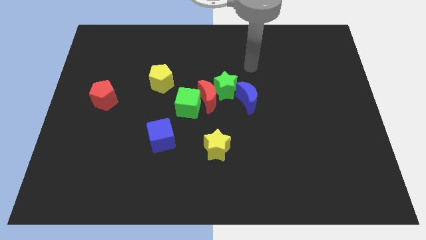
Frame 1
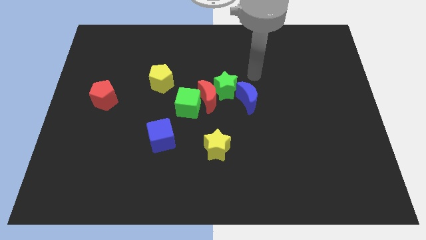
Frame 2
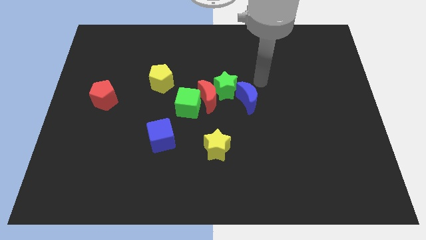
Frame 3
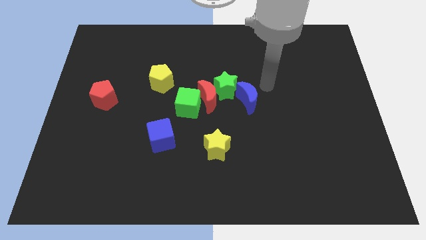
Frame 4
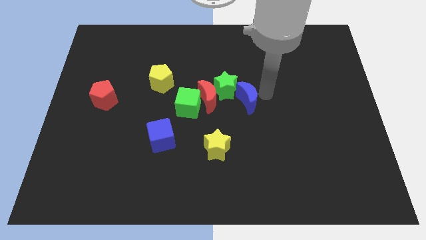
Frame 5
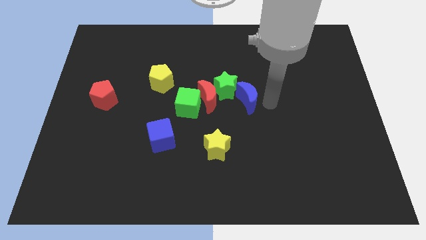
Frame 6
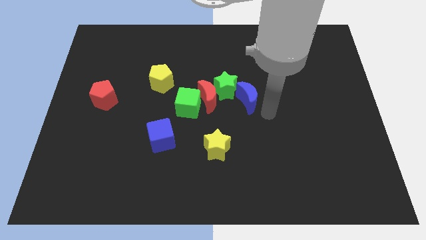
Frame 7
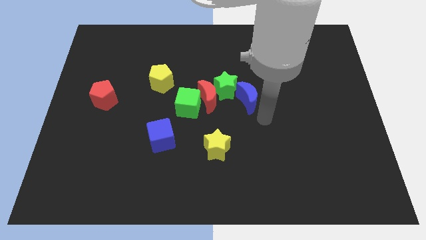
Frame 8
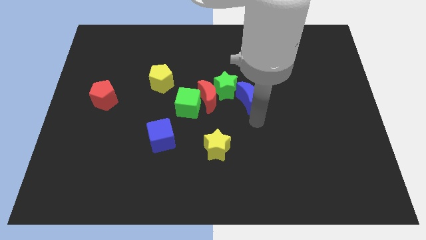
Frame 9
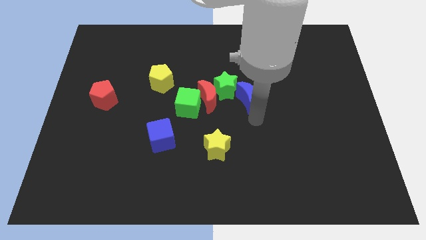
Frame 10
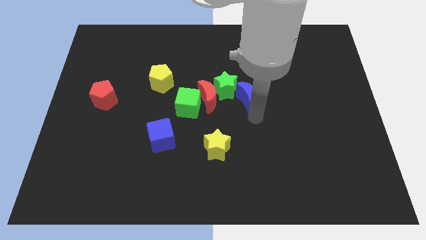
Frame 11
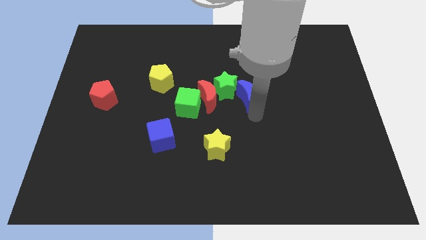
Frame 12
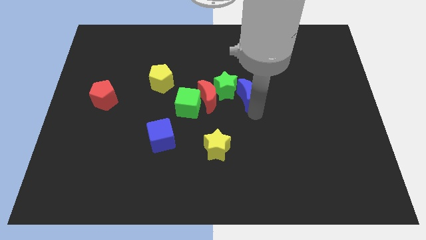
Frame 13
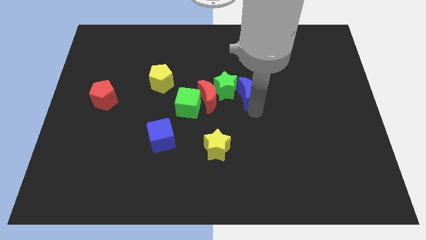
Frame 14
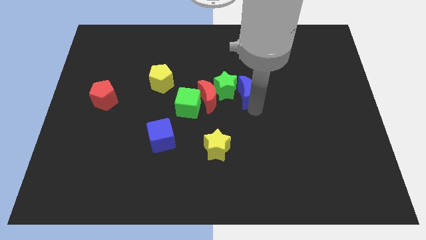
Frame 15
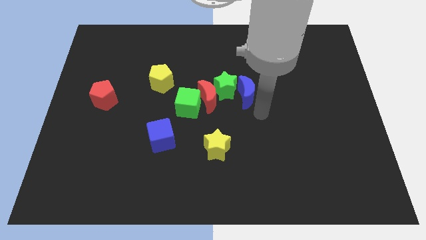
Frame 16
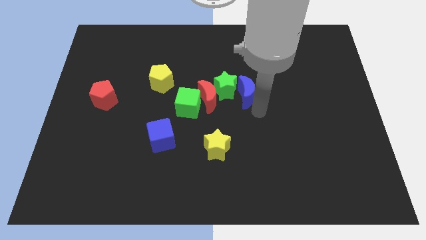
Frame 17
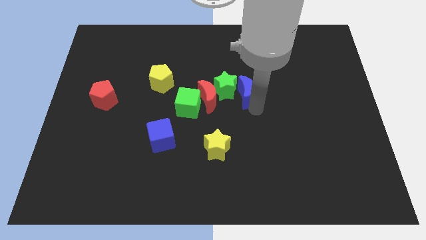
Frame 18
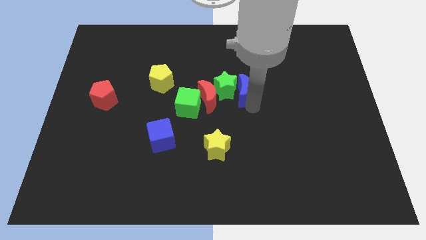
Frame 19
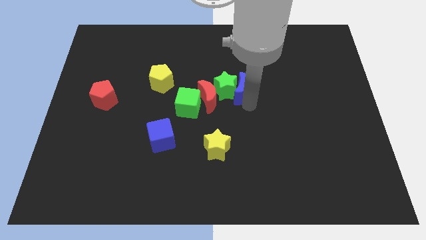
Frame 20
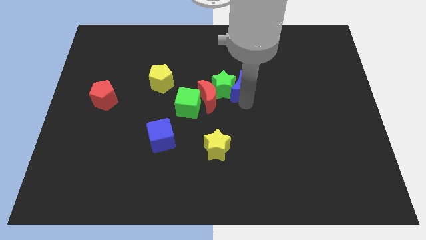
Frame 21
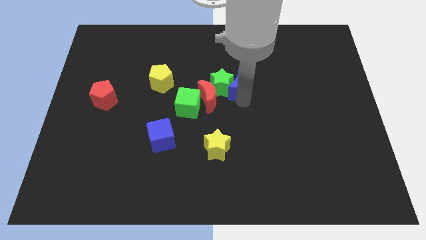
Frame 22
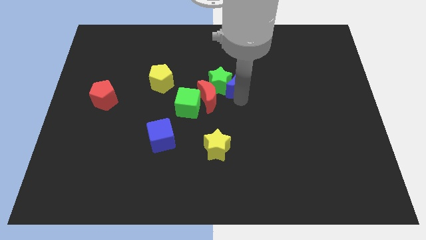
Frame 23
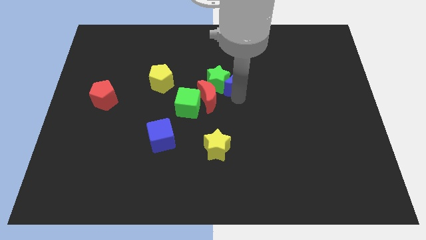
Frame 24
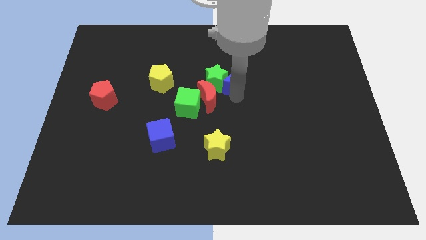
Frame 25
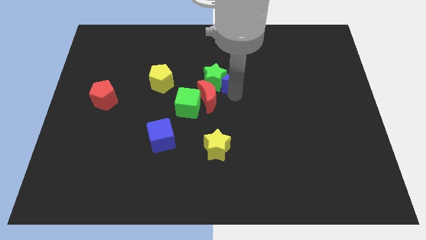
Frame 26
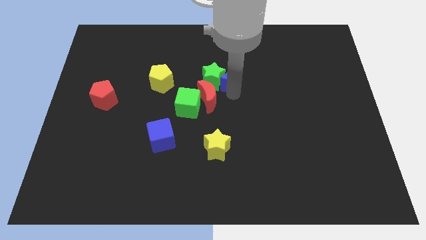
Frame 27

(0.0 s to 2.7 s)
push the blue moon slightly upwards and then left

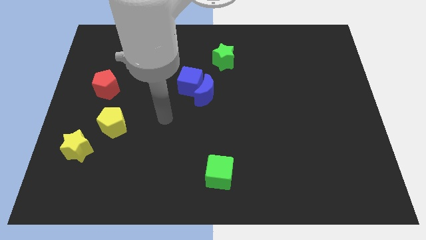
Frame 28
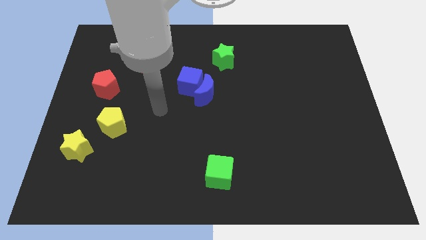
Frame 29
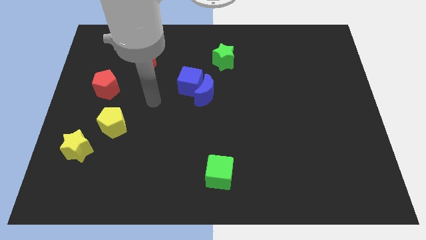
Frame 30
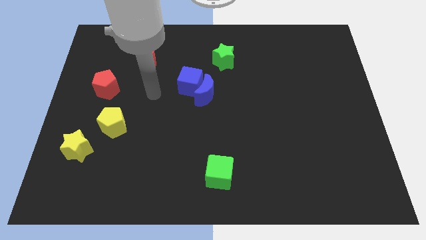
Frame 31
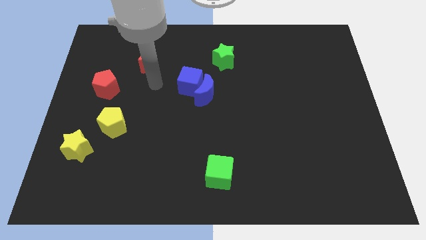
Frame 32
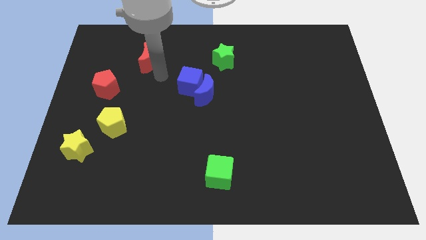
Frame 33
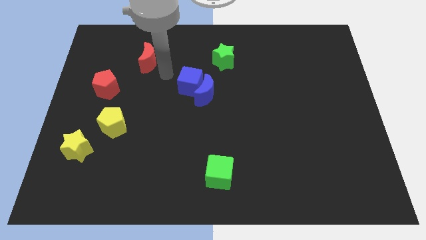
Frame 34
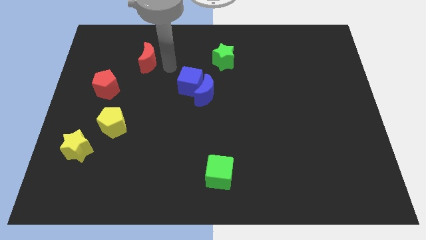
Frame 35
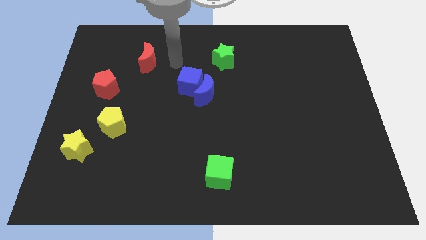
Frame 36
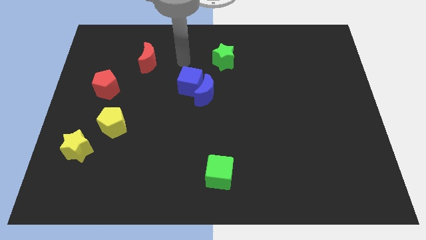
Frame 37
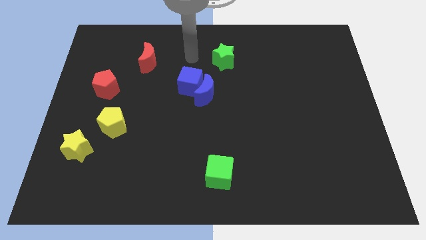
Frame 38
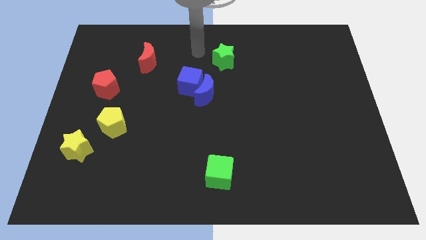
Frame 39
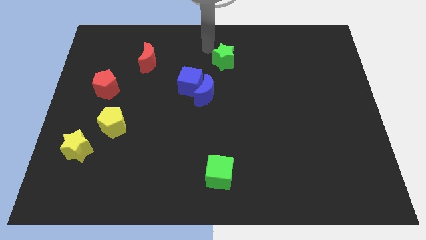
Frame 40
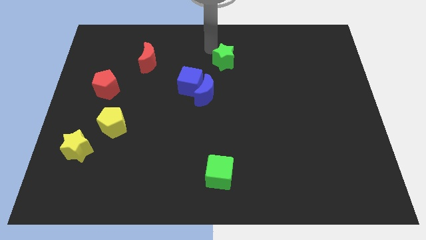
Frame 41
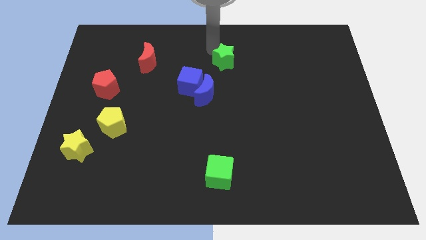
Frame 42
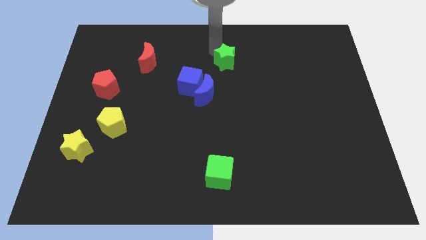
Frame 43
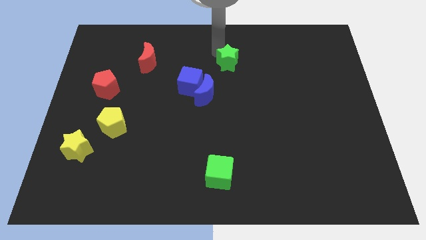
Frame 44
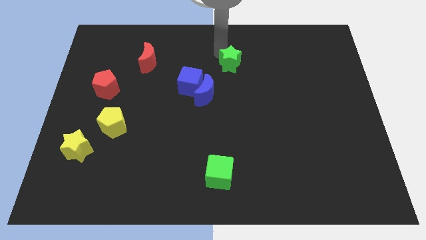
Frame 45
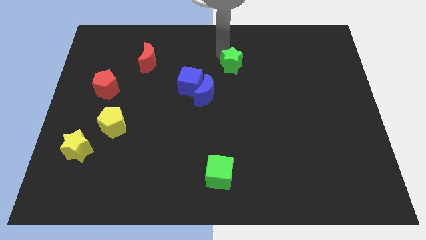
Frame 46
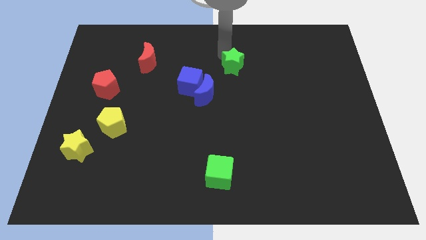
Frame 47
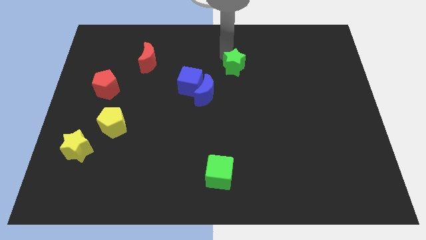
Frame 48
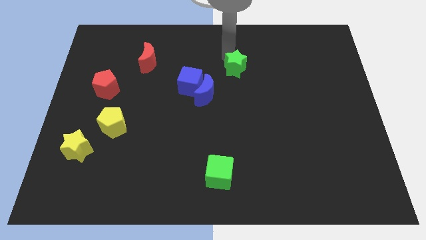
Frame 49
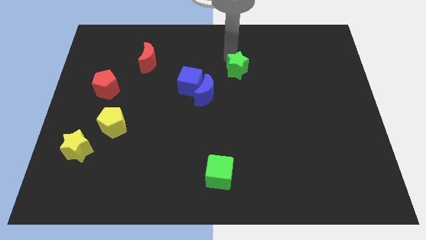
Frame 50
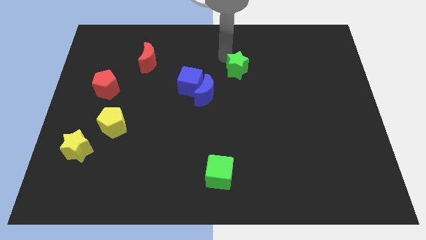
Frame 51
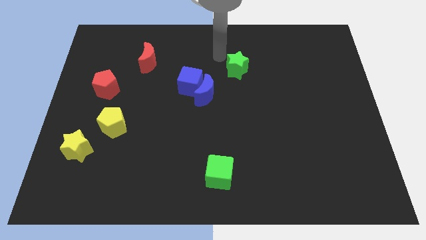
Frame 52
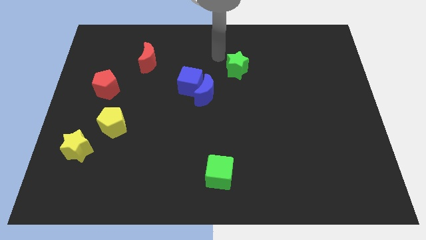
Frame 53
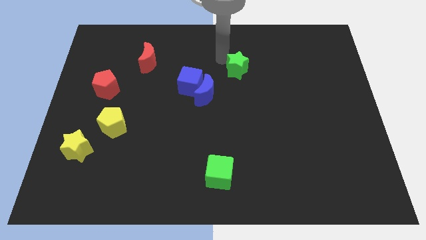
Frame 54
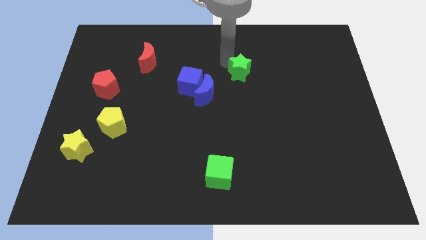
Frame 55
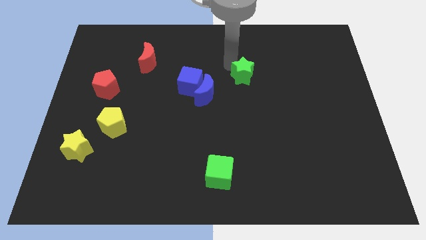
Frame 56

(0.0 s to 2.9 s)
slightly push the green star downwards and to the right

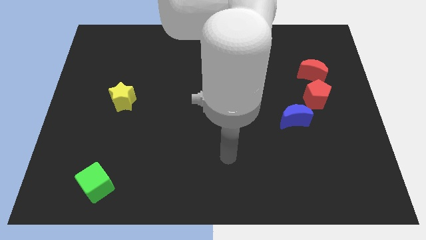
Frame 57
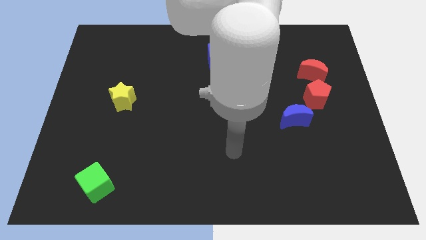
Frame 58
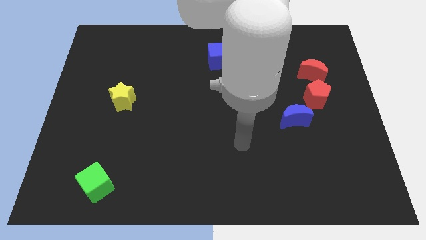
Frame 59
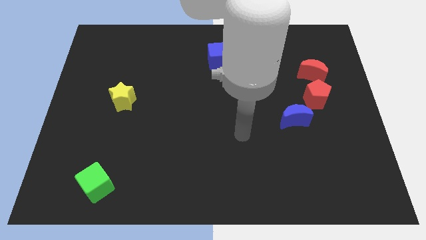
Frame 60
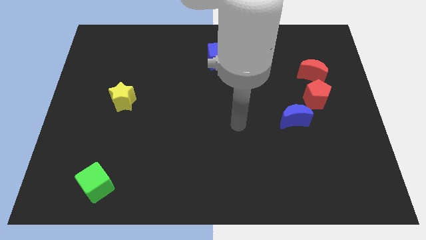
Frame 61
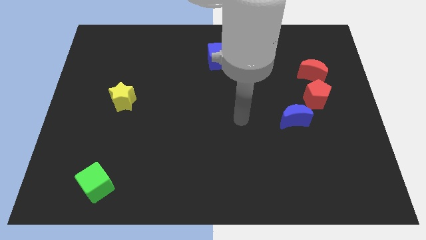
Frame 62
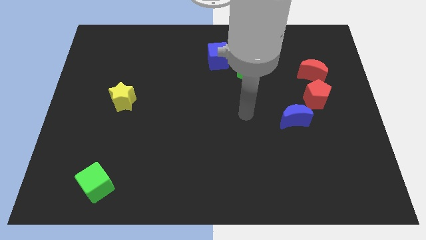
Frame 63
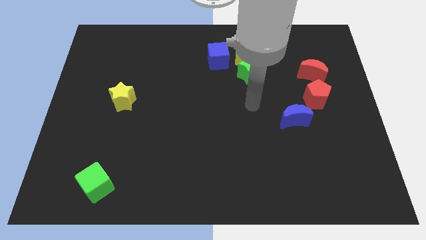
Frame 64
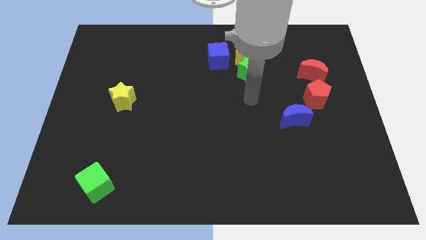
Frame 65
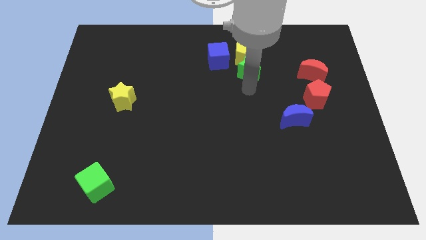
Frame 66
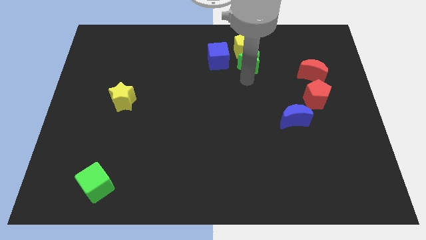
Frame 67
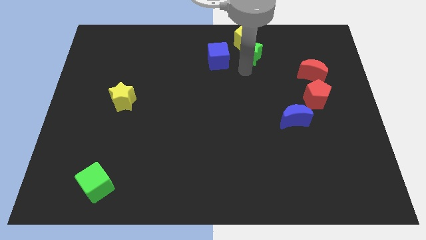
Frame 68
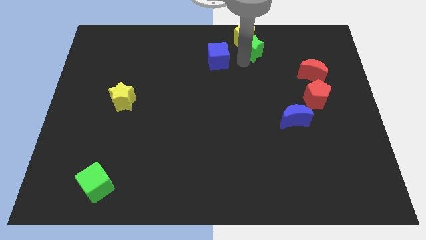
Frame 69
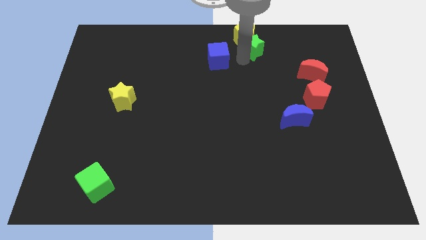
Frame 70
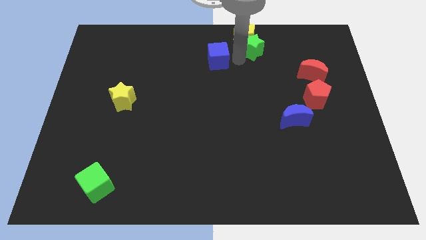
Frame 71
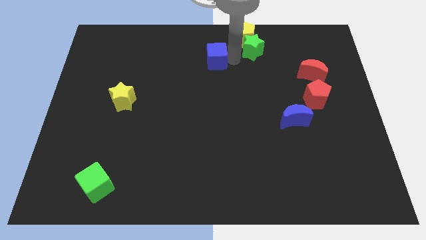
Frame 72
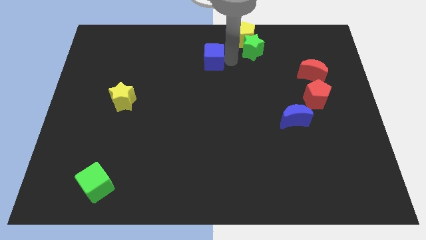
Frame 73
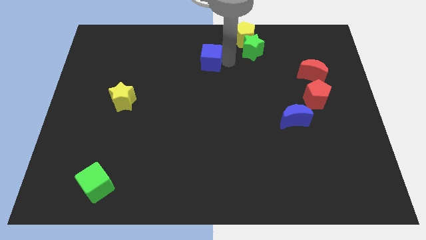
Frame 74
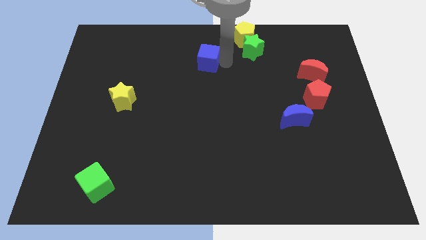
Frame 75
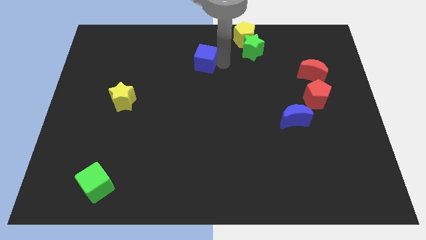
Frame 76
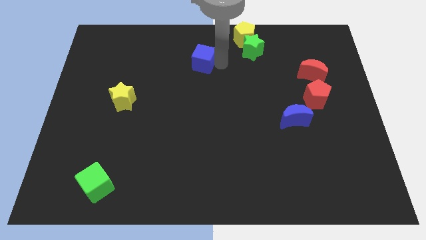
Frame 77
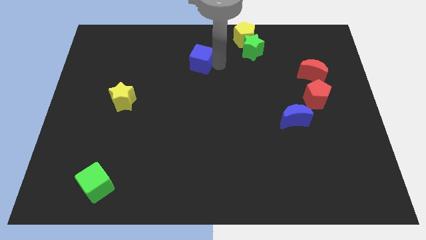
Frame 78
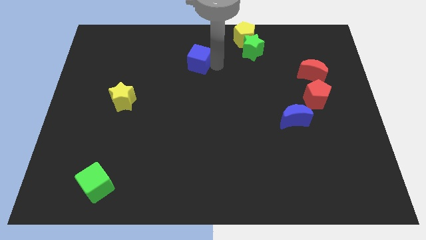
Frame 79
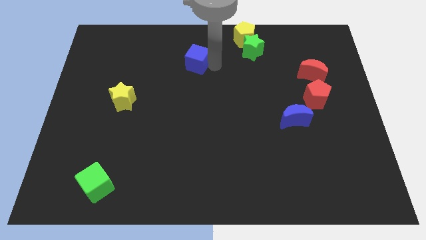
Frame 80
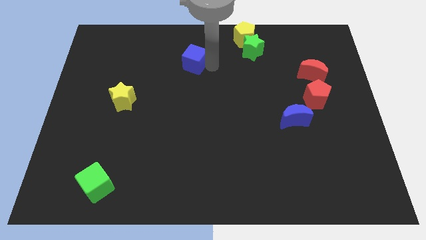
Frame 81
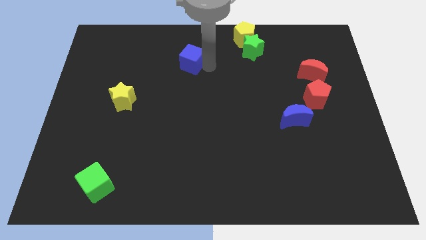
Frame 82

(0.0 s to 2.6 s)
move the blue cube a little bit to the left

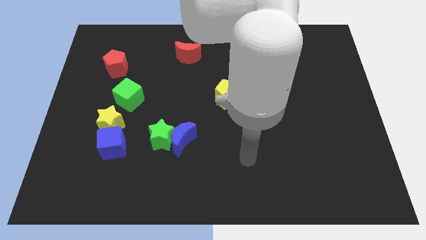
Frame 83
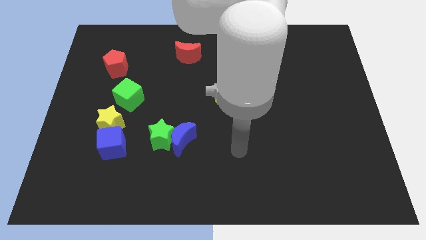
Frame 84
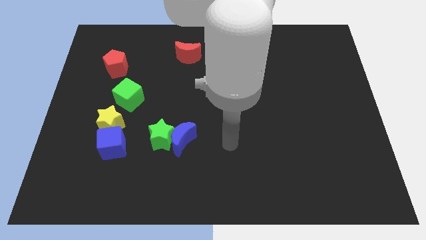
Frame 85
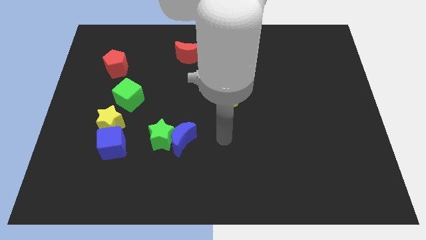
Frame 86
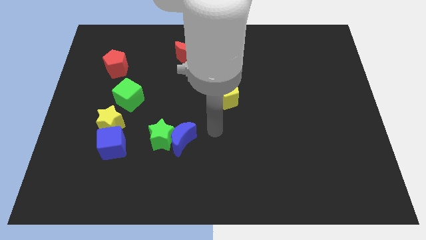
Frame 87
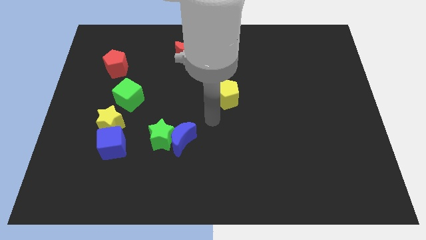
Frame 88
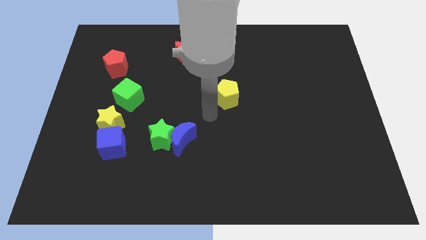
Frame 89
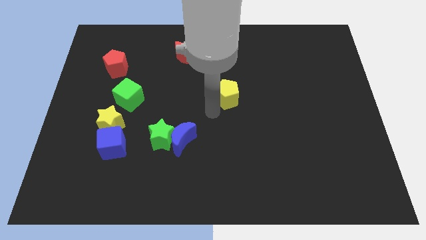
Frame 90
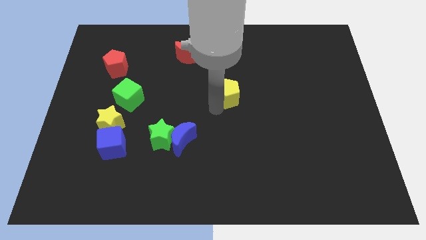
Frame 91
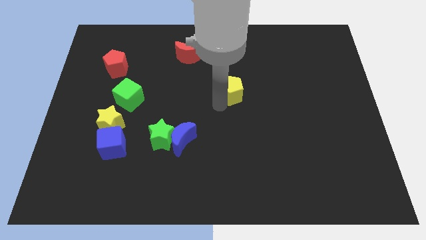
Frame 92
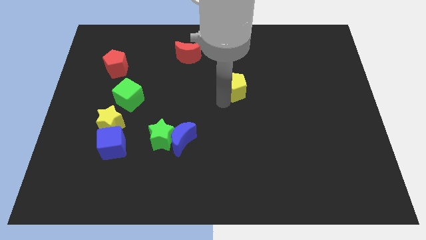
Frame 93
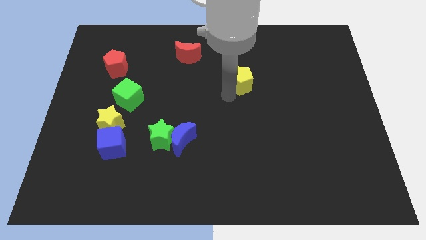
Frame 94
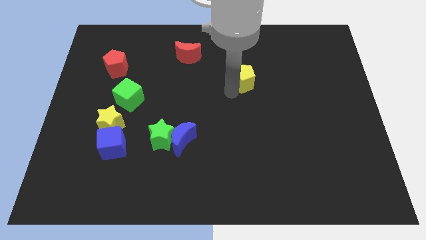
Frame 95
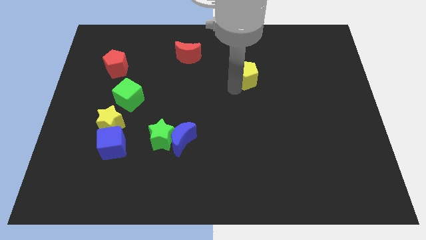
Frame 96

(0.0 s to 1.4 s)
slide the yellow pentagon up and then to the right slightly
